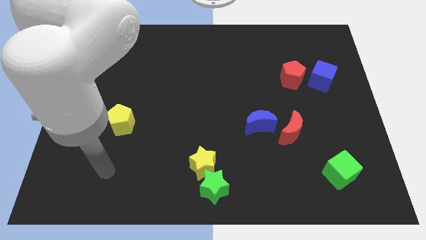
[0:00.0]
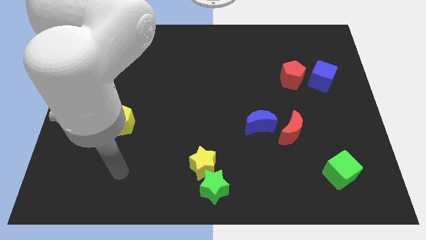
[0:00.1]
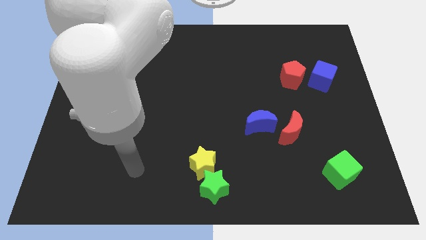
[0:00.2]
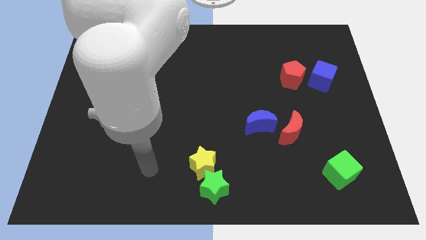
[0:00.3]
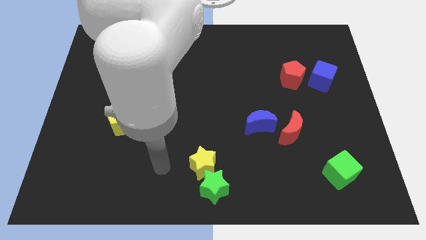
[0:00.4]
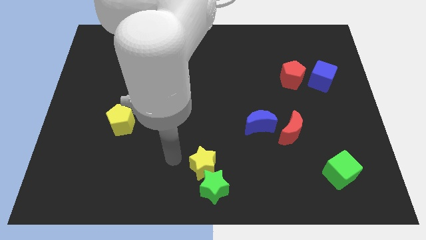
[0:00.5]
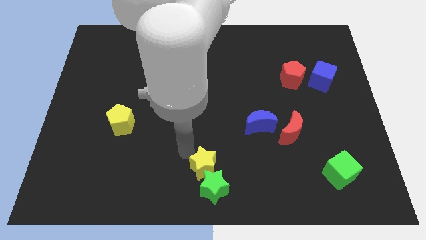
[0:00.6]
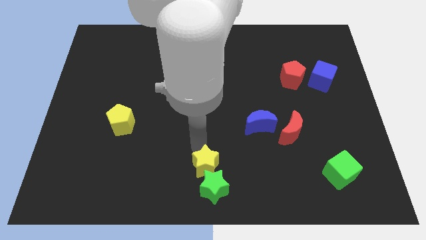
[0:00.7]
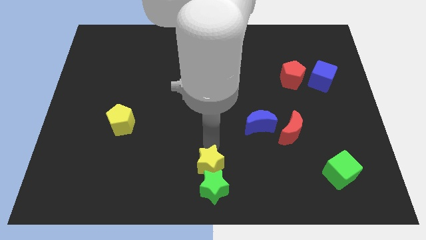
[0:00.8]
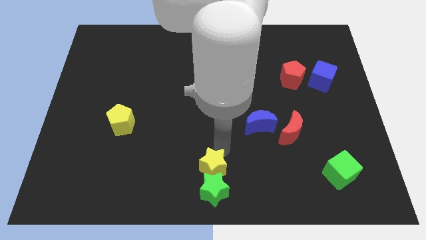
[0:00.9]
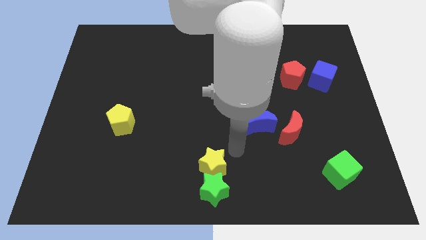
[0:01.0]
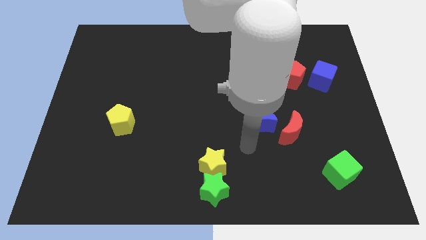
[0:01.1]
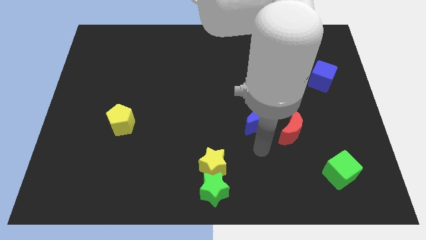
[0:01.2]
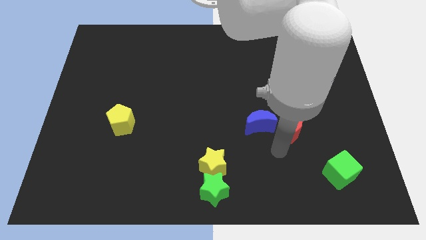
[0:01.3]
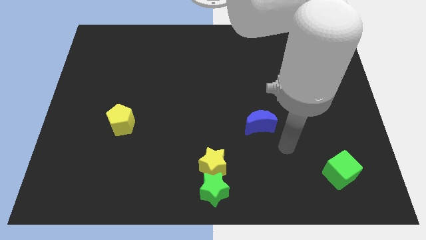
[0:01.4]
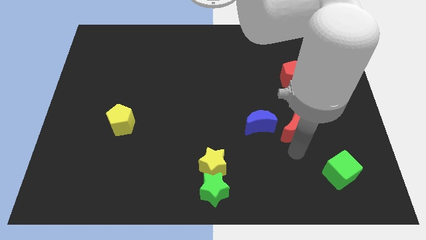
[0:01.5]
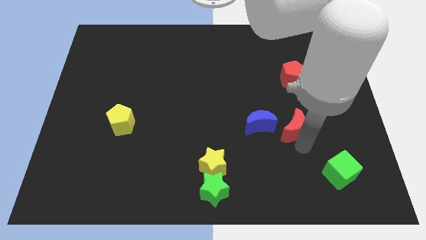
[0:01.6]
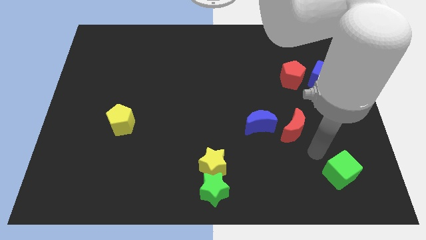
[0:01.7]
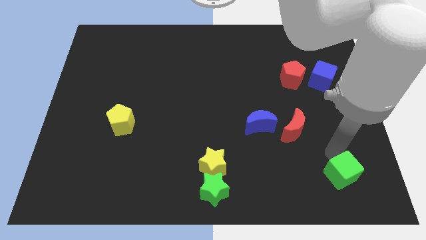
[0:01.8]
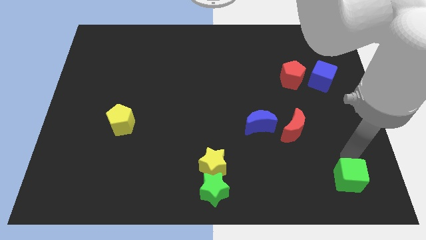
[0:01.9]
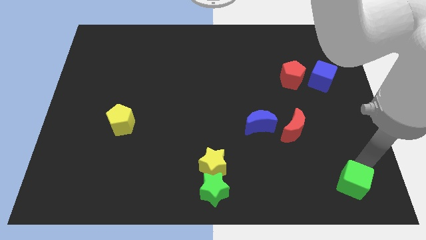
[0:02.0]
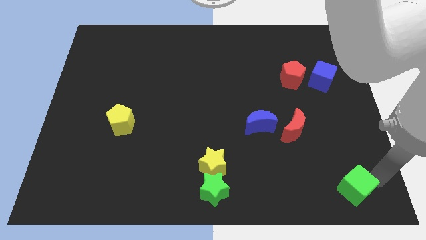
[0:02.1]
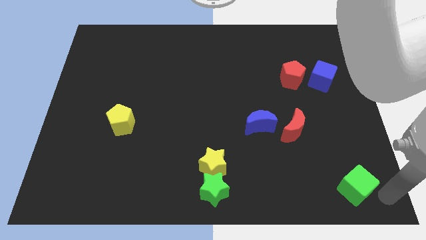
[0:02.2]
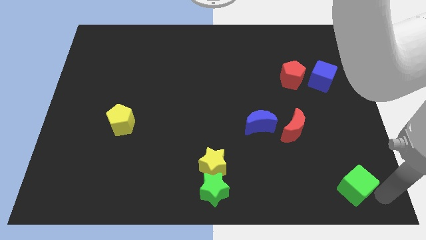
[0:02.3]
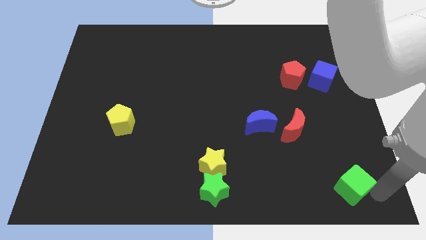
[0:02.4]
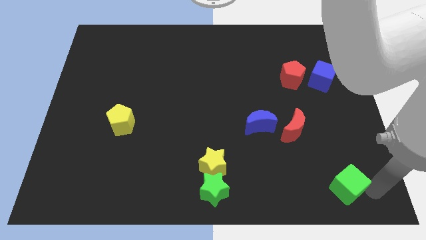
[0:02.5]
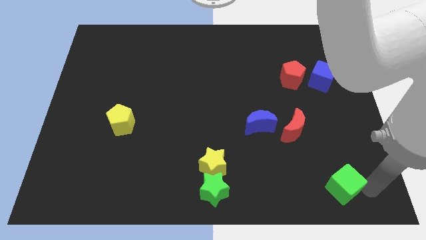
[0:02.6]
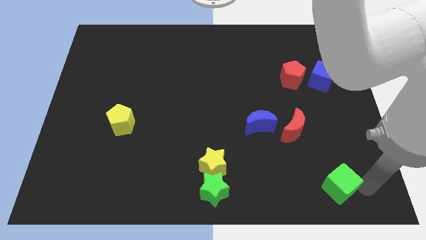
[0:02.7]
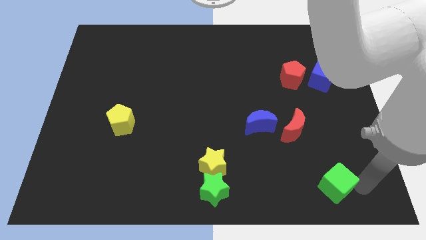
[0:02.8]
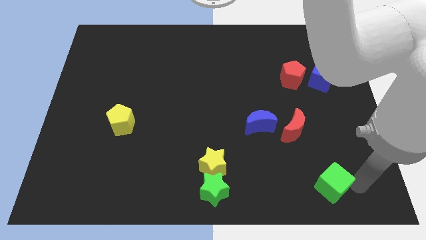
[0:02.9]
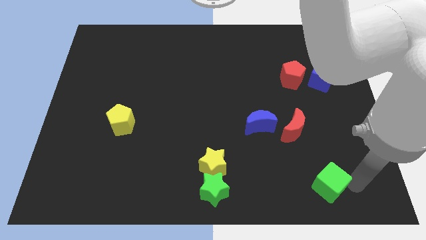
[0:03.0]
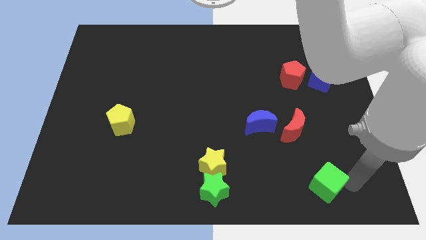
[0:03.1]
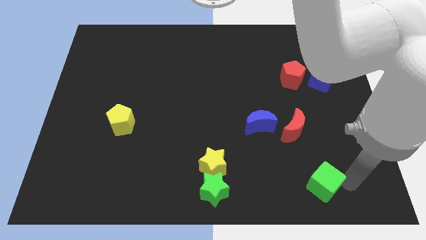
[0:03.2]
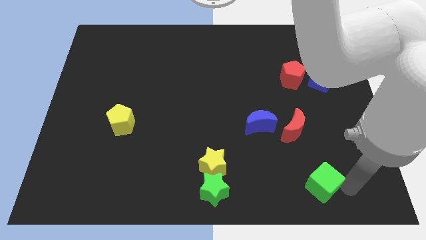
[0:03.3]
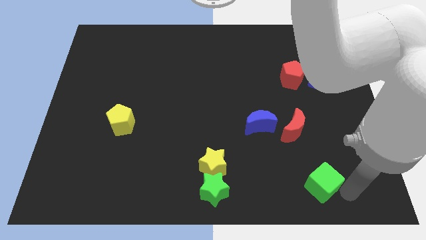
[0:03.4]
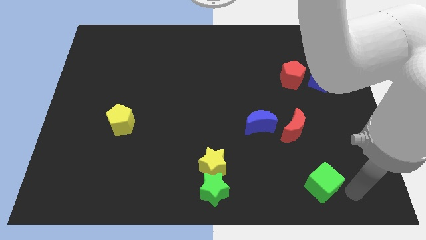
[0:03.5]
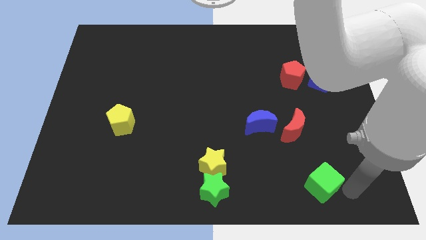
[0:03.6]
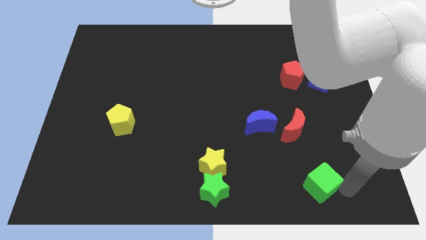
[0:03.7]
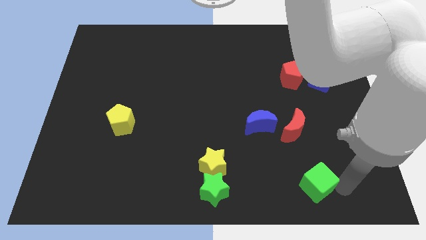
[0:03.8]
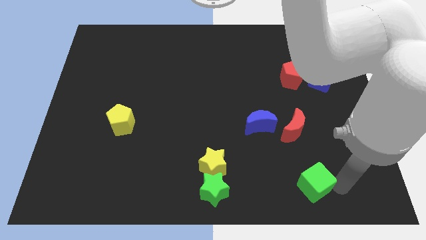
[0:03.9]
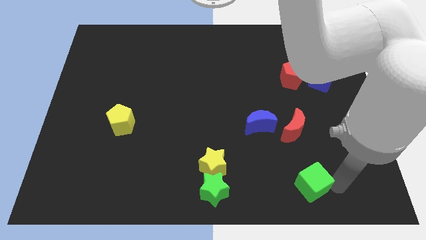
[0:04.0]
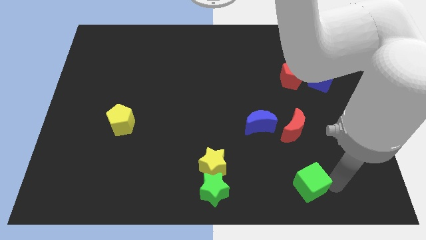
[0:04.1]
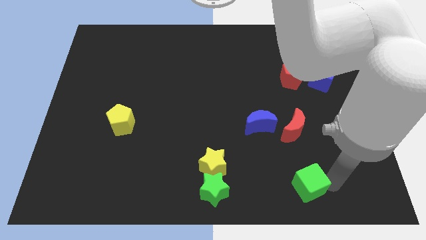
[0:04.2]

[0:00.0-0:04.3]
slide the green cube a little bit to the left

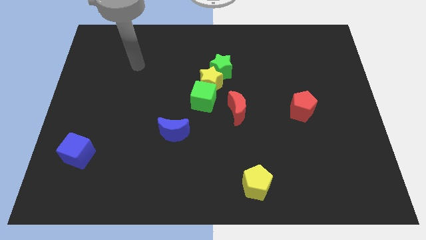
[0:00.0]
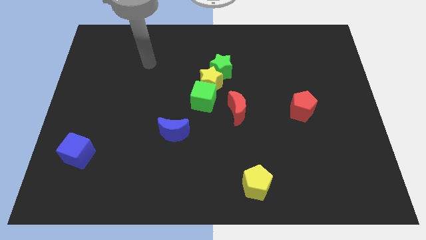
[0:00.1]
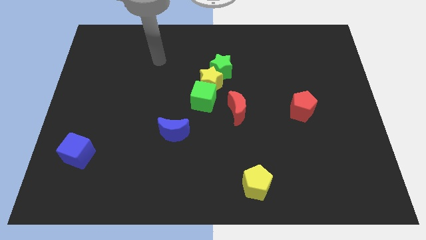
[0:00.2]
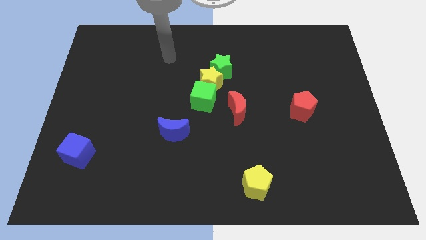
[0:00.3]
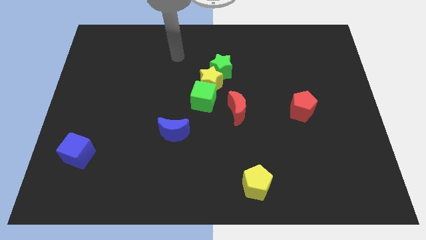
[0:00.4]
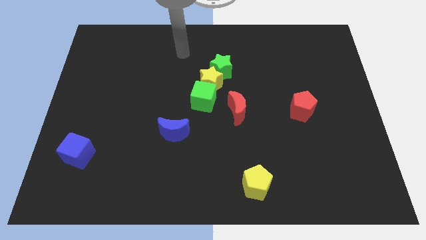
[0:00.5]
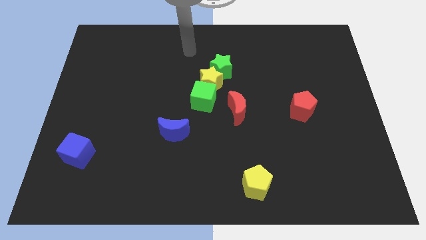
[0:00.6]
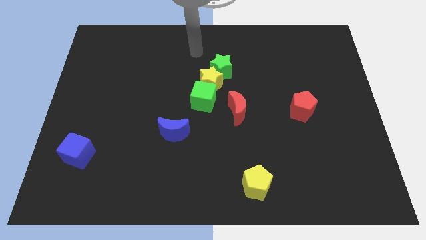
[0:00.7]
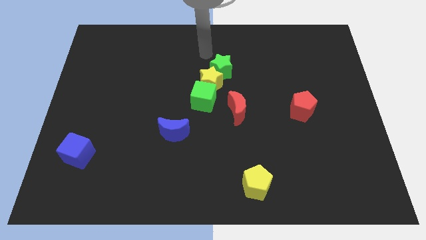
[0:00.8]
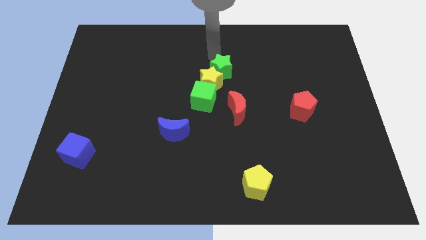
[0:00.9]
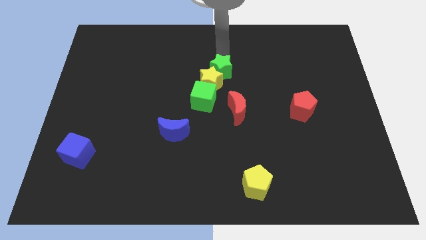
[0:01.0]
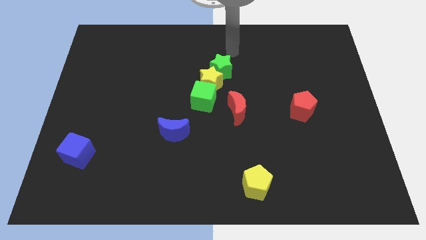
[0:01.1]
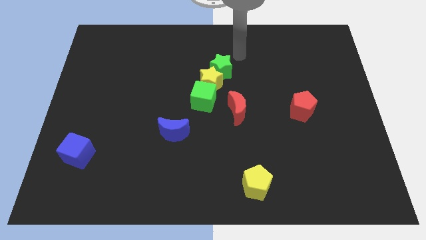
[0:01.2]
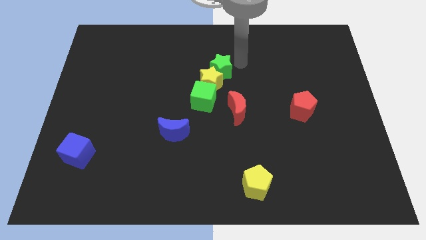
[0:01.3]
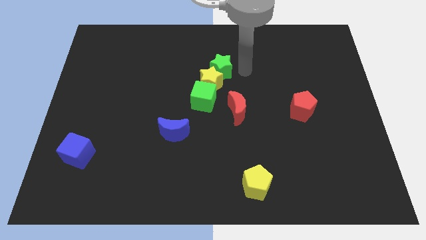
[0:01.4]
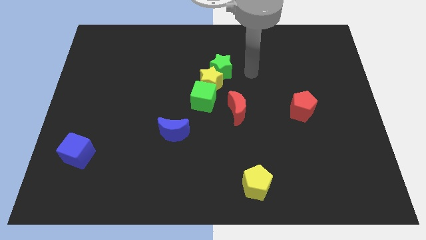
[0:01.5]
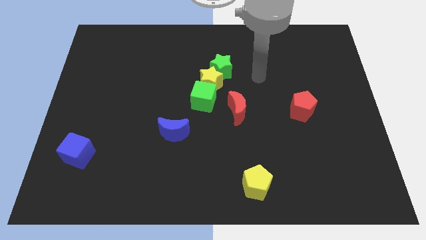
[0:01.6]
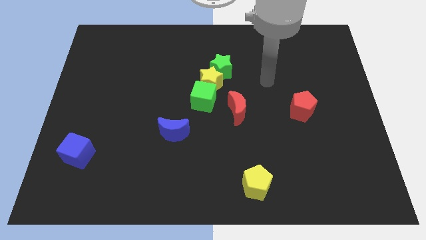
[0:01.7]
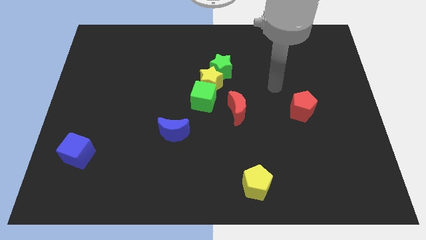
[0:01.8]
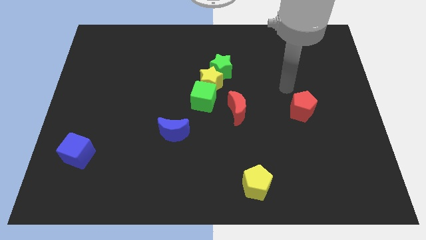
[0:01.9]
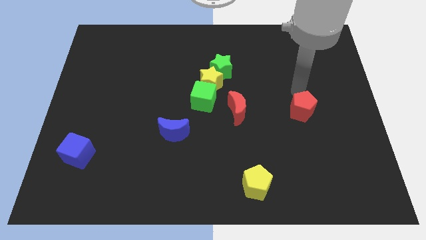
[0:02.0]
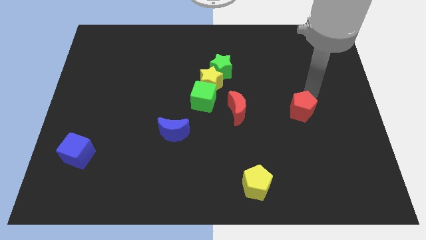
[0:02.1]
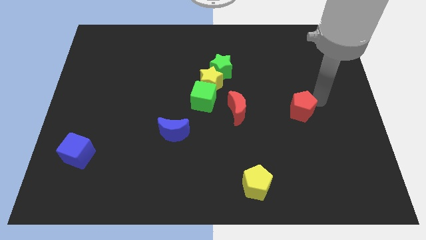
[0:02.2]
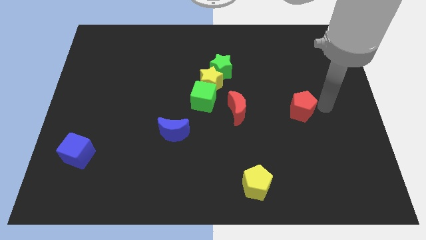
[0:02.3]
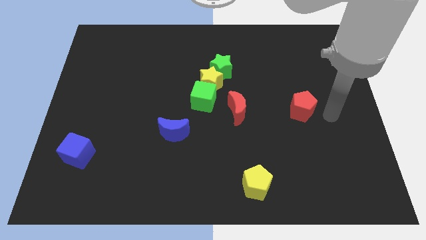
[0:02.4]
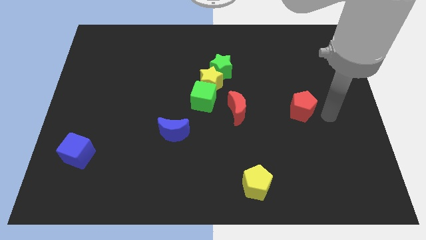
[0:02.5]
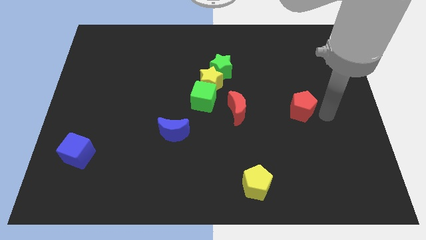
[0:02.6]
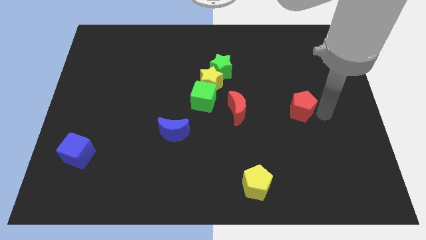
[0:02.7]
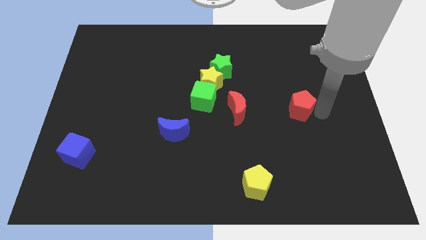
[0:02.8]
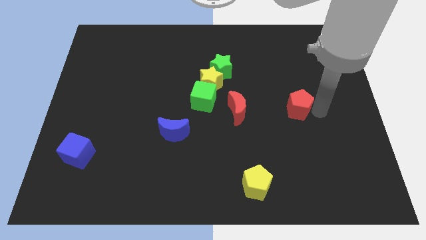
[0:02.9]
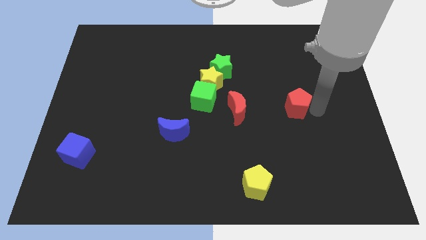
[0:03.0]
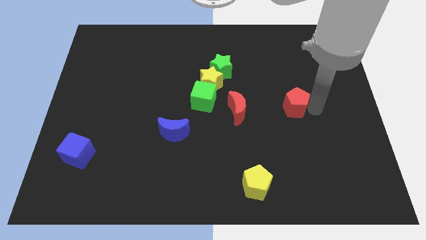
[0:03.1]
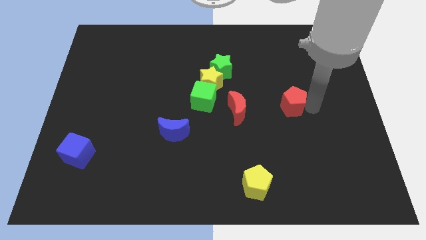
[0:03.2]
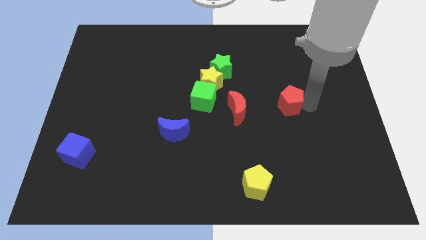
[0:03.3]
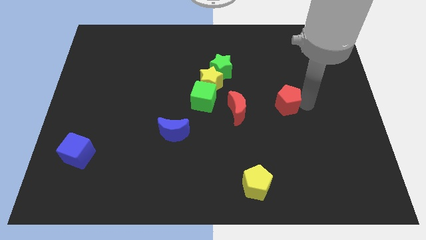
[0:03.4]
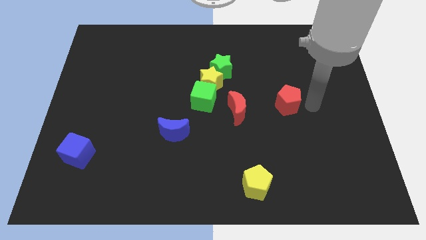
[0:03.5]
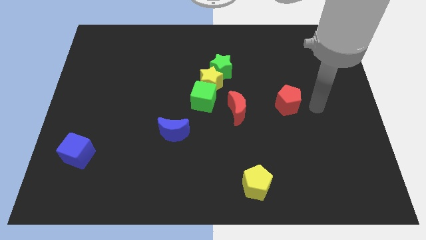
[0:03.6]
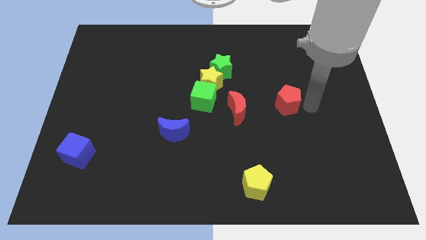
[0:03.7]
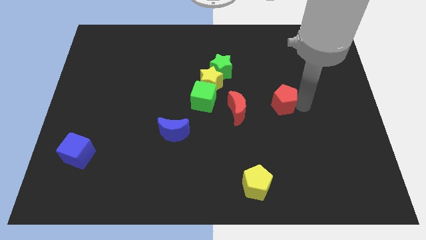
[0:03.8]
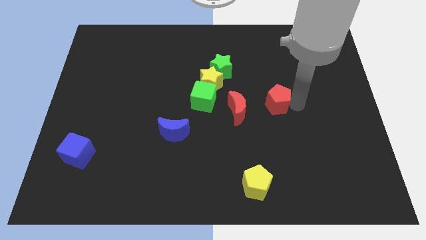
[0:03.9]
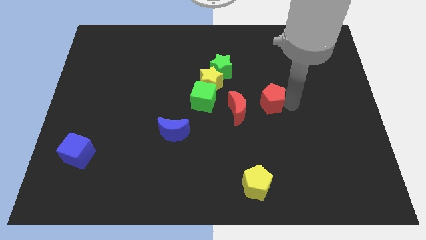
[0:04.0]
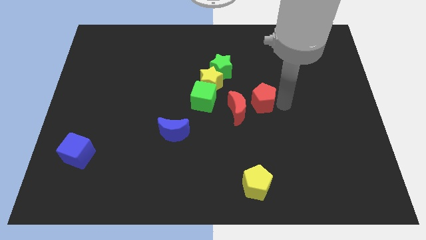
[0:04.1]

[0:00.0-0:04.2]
push the red pentagon a little to the left
